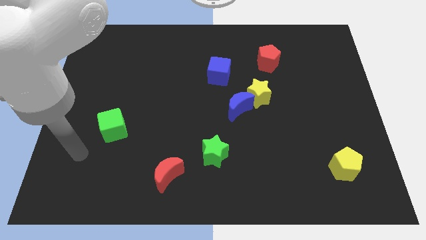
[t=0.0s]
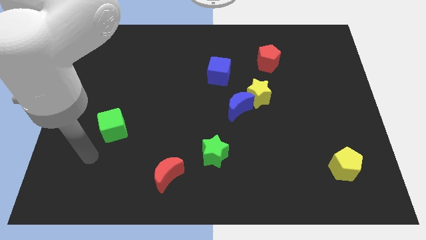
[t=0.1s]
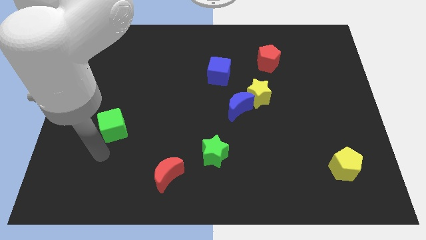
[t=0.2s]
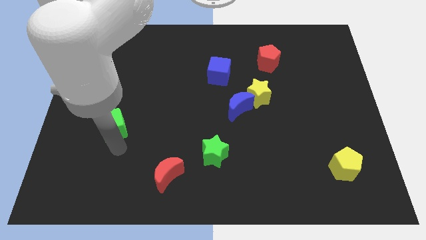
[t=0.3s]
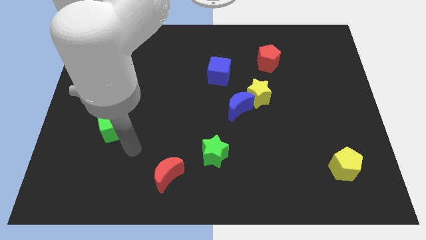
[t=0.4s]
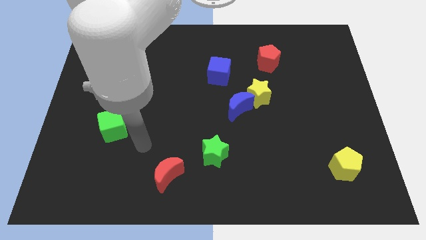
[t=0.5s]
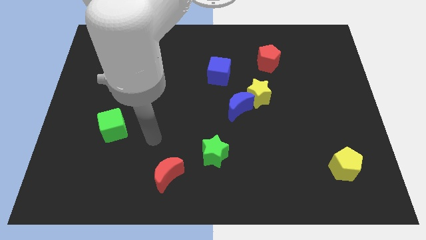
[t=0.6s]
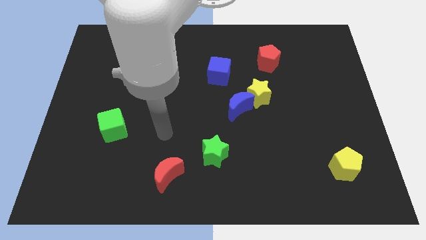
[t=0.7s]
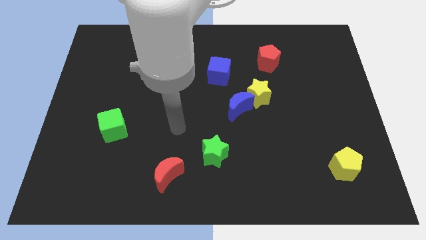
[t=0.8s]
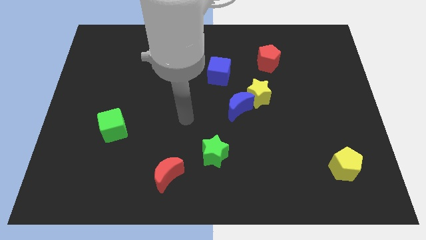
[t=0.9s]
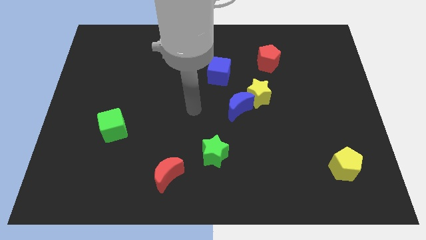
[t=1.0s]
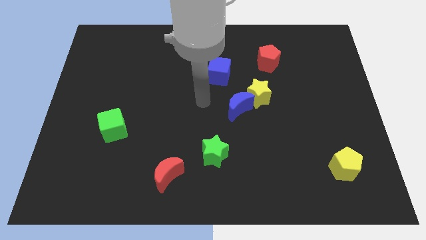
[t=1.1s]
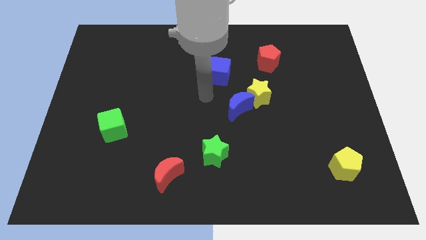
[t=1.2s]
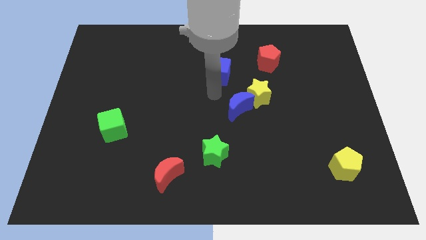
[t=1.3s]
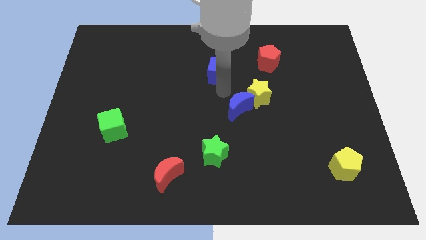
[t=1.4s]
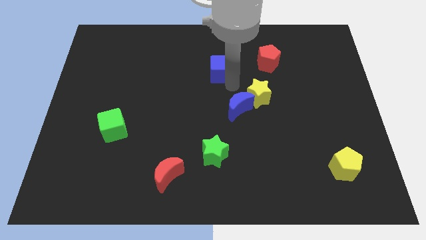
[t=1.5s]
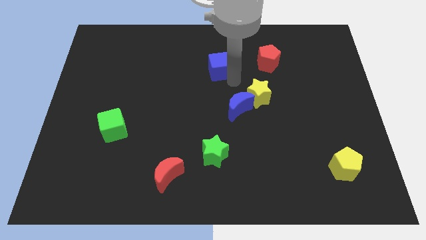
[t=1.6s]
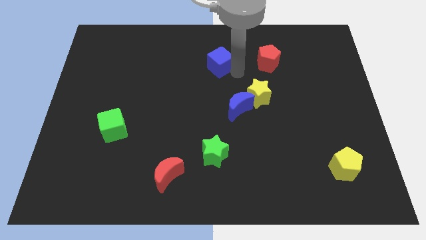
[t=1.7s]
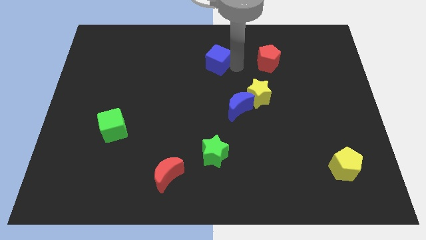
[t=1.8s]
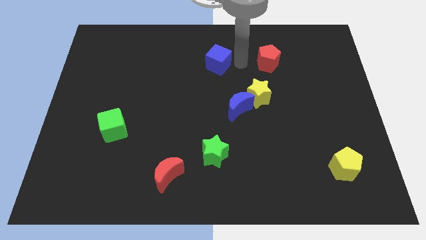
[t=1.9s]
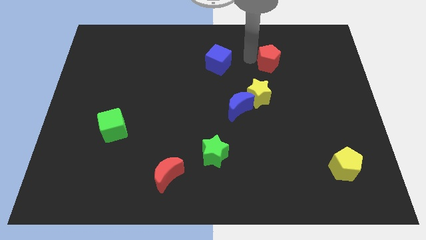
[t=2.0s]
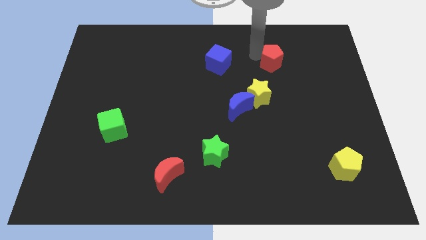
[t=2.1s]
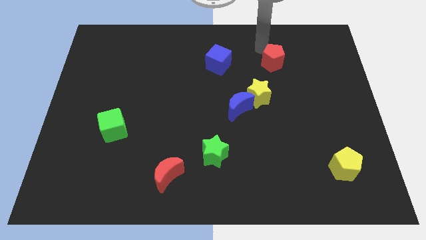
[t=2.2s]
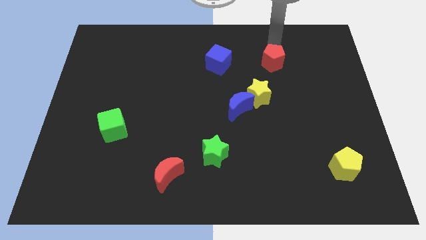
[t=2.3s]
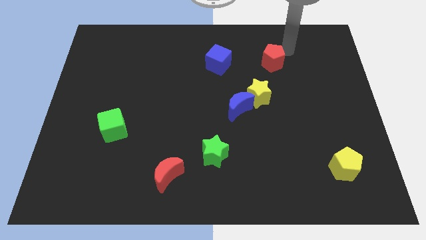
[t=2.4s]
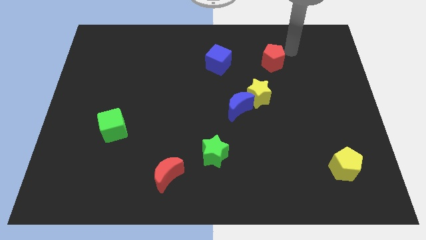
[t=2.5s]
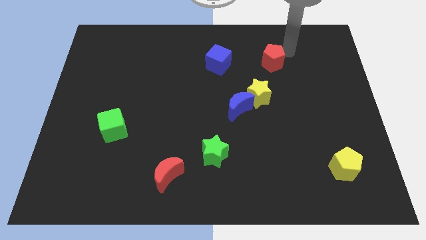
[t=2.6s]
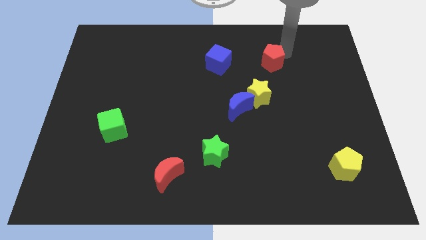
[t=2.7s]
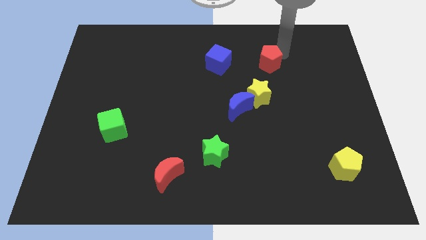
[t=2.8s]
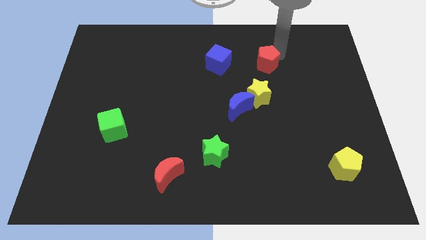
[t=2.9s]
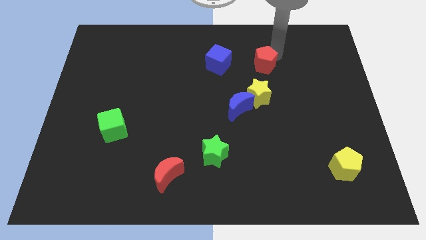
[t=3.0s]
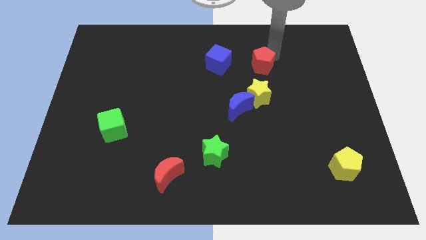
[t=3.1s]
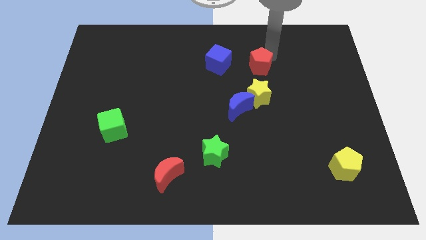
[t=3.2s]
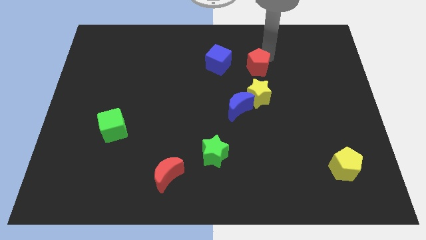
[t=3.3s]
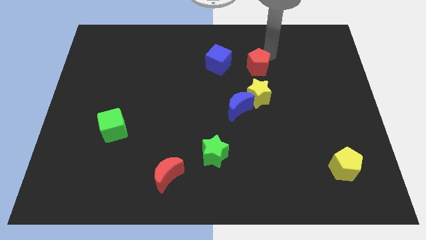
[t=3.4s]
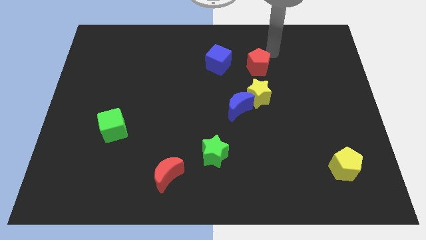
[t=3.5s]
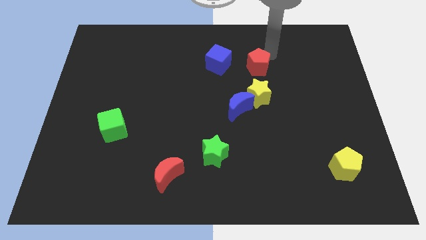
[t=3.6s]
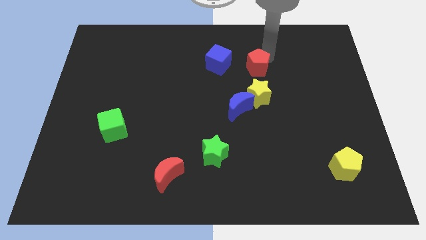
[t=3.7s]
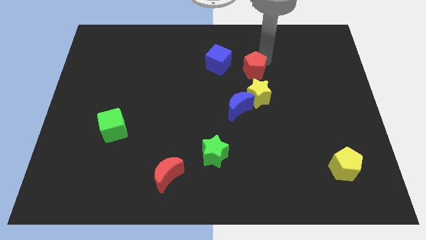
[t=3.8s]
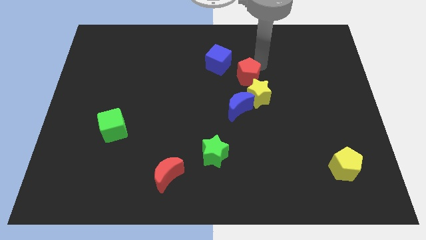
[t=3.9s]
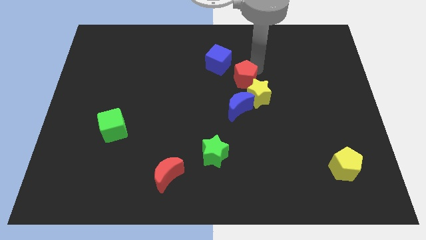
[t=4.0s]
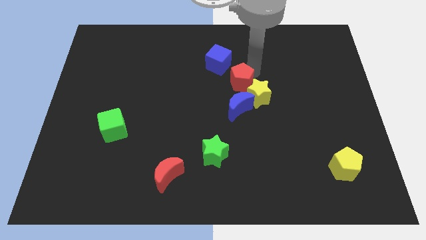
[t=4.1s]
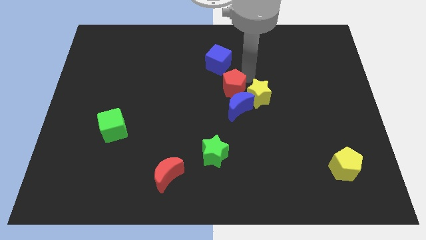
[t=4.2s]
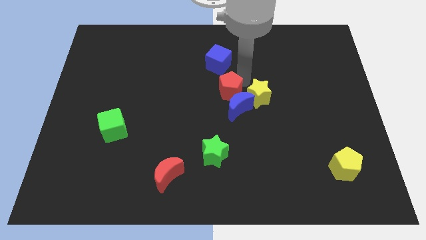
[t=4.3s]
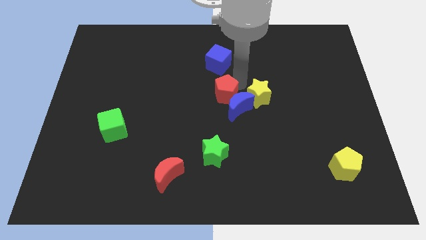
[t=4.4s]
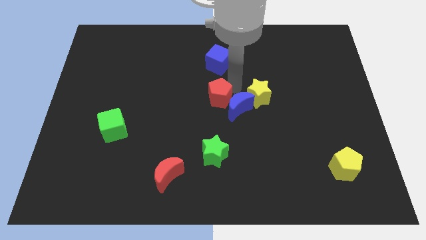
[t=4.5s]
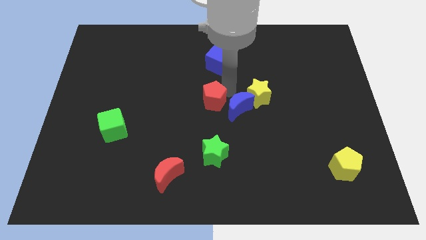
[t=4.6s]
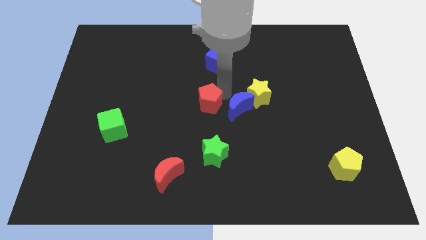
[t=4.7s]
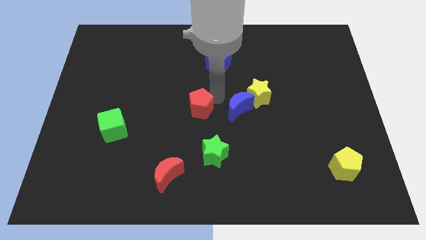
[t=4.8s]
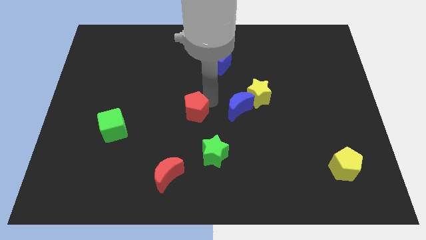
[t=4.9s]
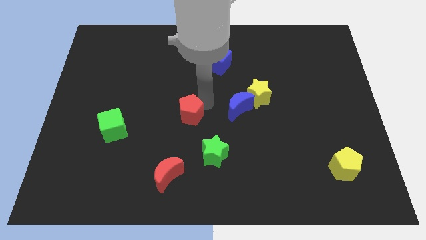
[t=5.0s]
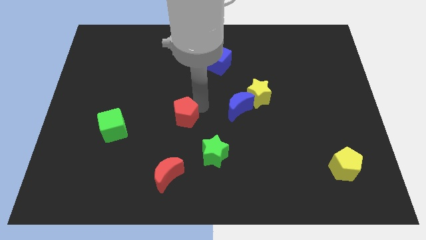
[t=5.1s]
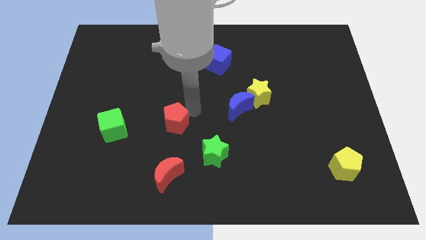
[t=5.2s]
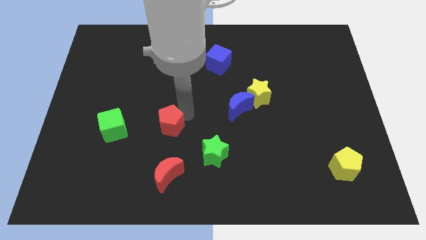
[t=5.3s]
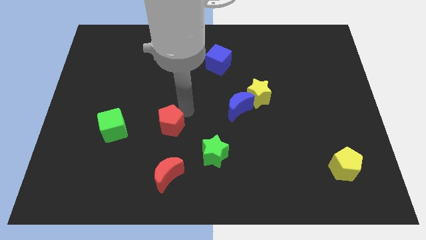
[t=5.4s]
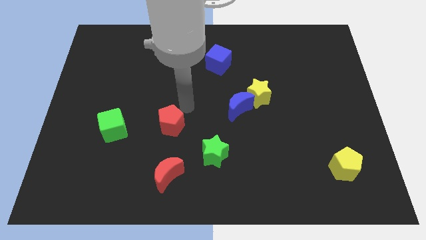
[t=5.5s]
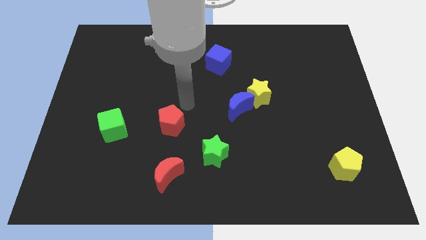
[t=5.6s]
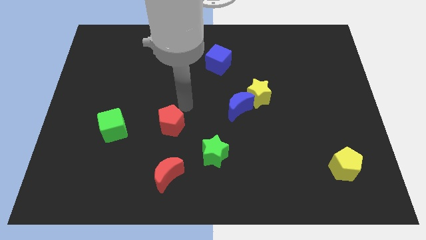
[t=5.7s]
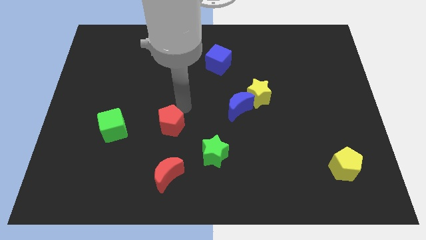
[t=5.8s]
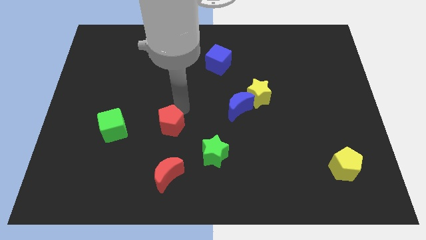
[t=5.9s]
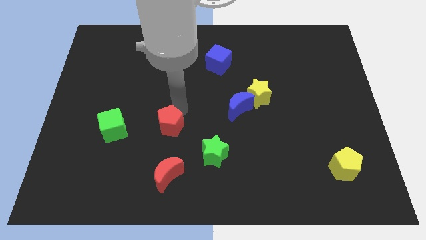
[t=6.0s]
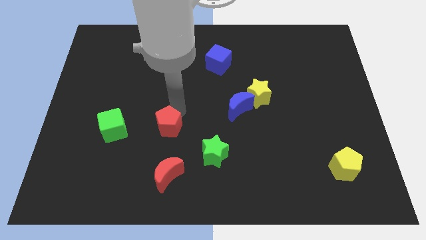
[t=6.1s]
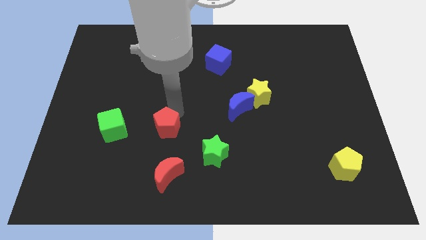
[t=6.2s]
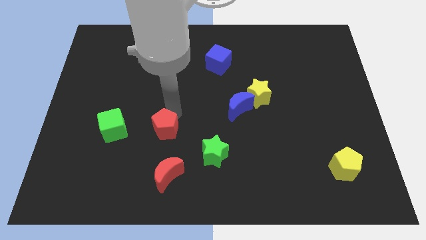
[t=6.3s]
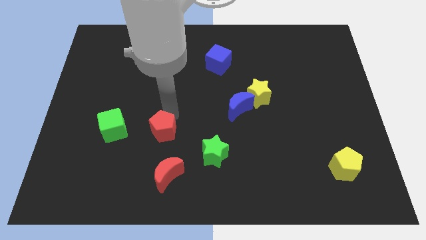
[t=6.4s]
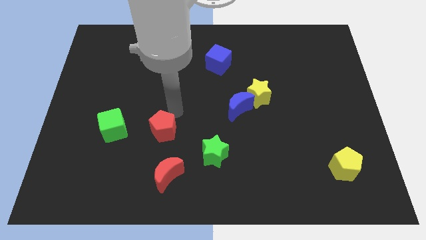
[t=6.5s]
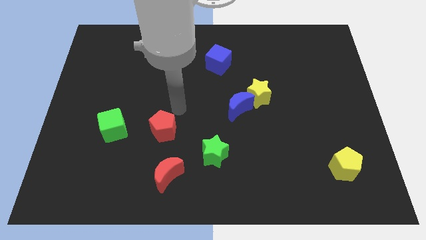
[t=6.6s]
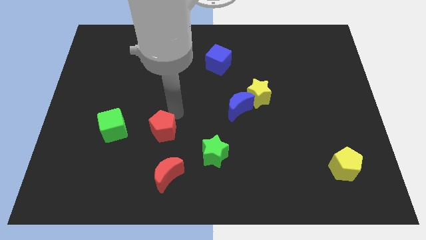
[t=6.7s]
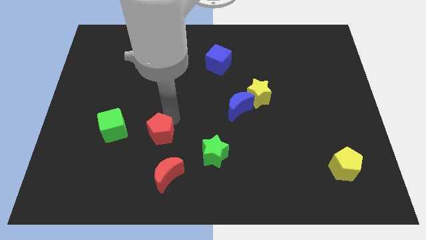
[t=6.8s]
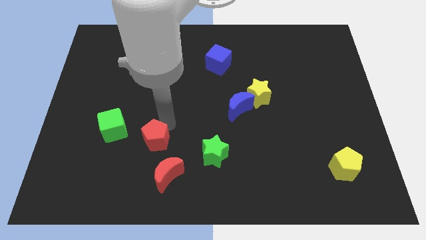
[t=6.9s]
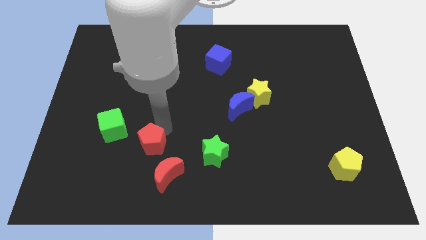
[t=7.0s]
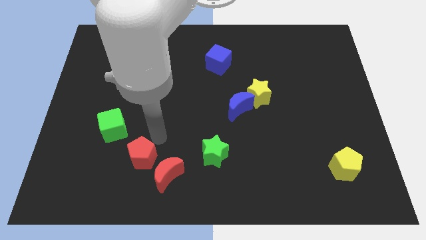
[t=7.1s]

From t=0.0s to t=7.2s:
push the red pentagon to the left of the red moon

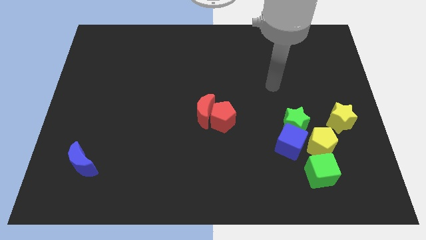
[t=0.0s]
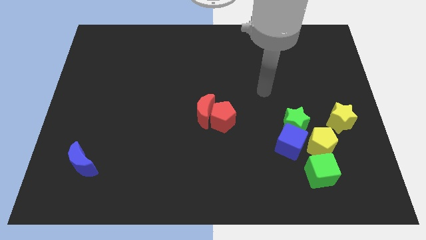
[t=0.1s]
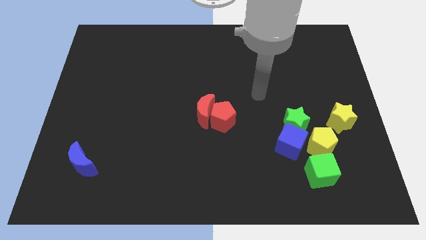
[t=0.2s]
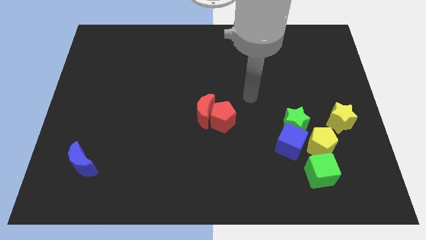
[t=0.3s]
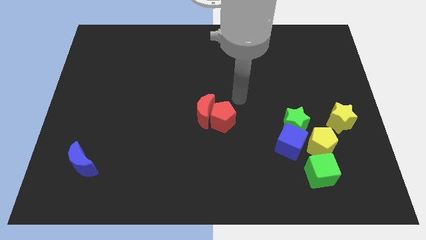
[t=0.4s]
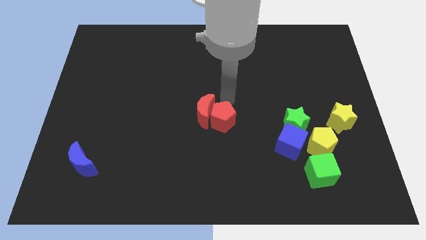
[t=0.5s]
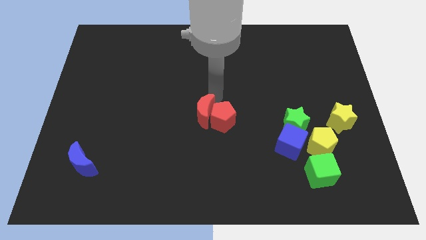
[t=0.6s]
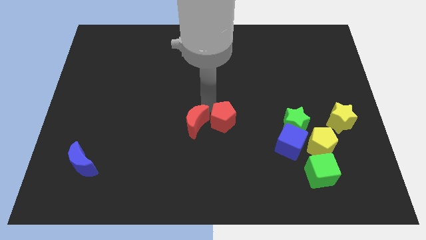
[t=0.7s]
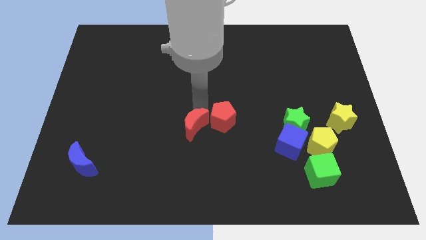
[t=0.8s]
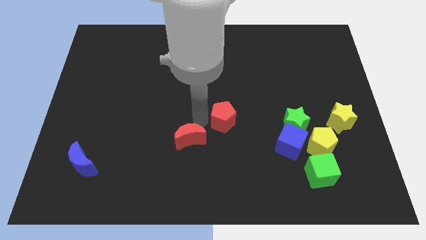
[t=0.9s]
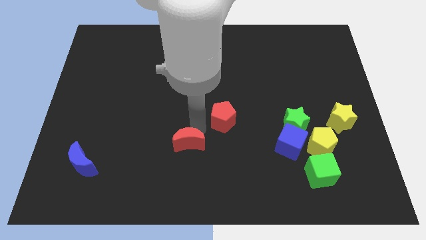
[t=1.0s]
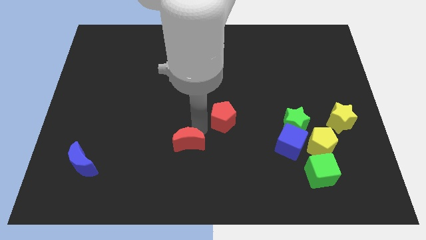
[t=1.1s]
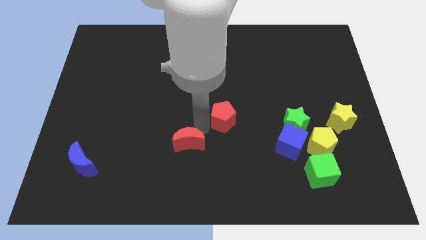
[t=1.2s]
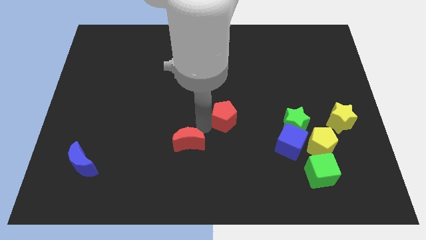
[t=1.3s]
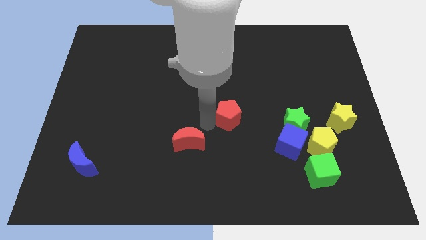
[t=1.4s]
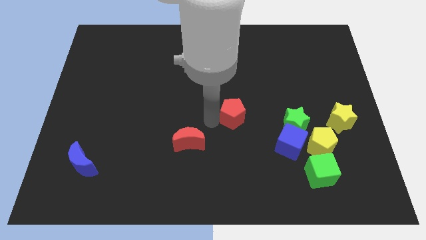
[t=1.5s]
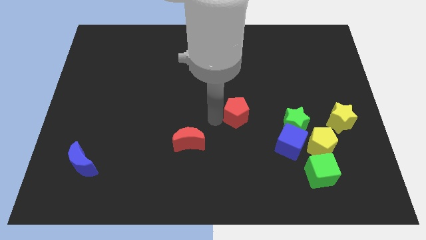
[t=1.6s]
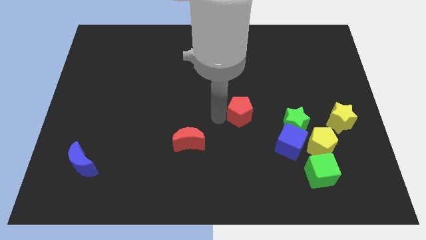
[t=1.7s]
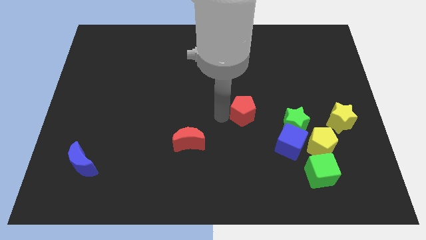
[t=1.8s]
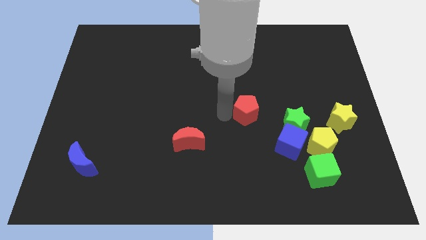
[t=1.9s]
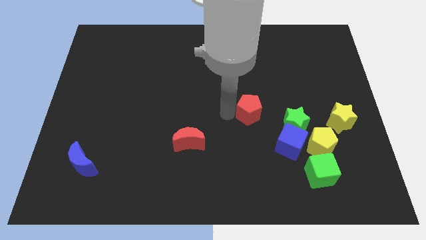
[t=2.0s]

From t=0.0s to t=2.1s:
move the red pentagon diagonally up and to the left of the green star
